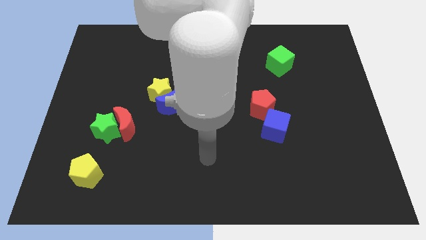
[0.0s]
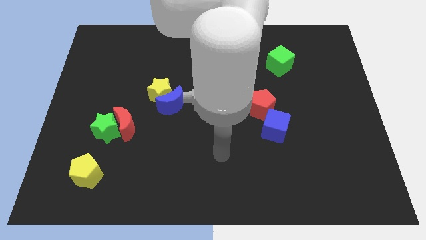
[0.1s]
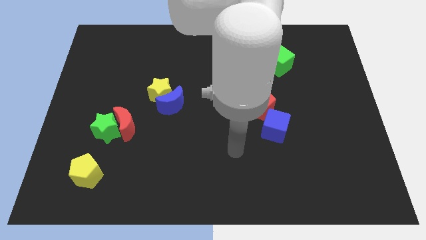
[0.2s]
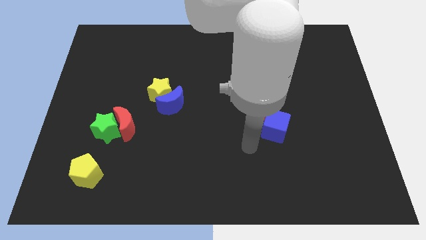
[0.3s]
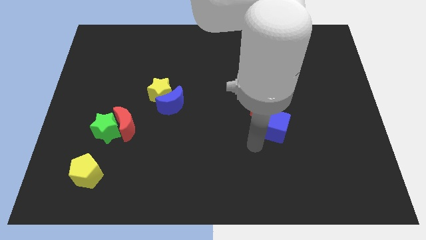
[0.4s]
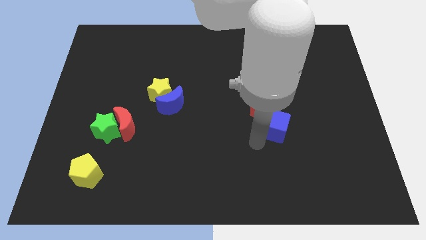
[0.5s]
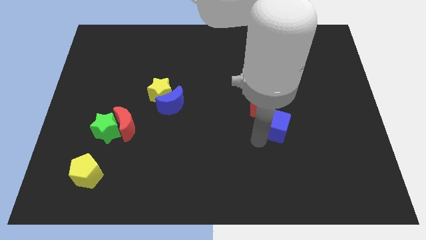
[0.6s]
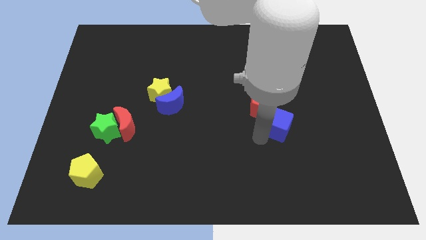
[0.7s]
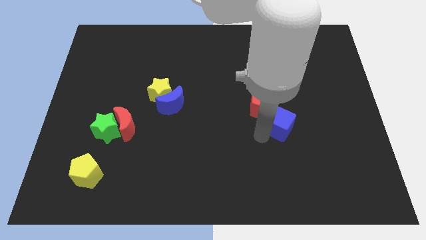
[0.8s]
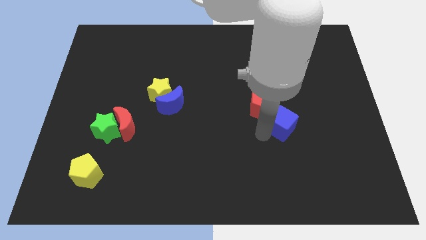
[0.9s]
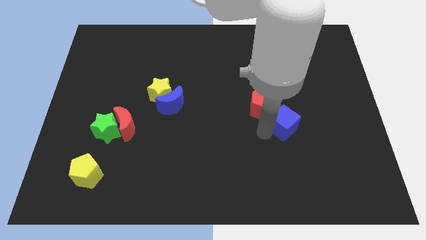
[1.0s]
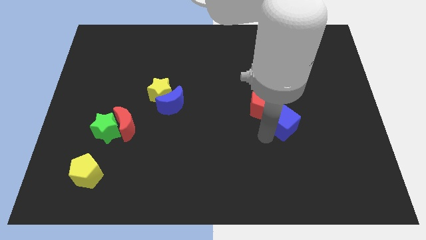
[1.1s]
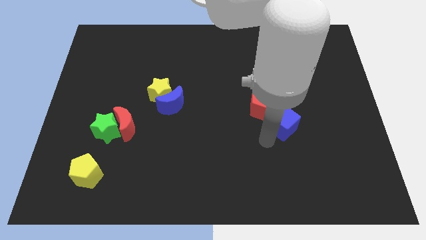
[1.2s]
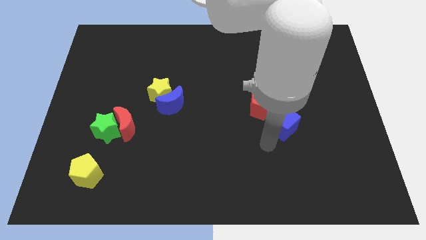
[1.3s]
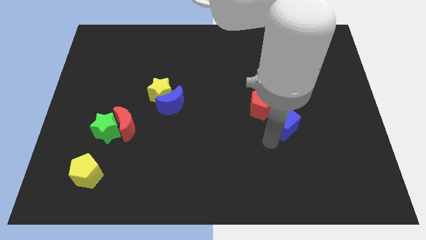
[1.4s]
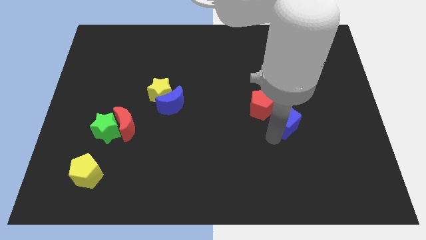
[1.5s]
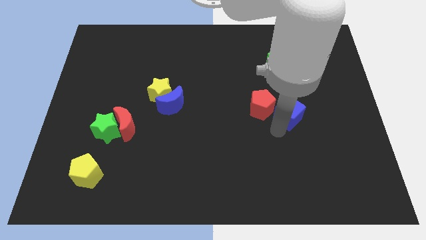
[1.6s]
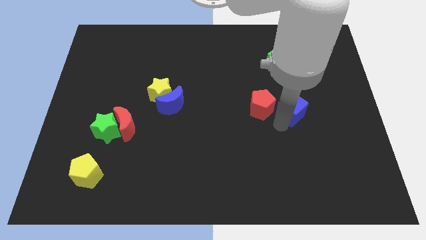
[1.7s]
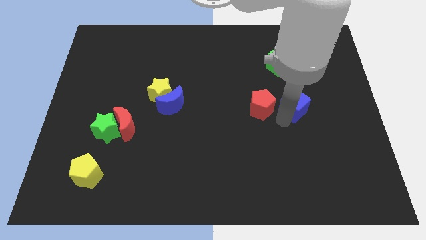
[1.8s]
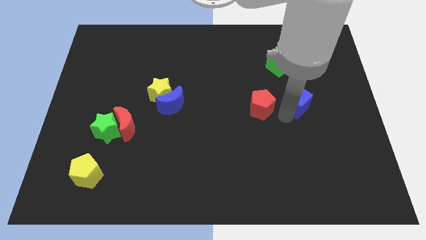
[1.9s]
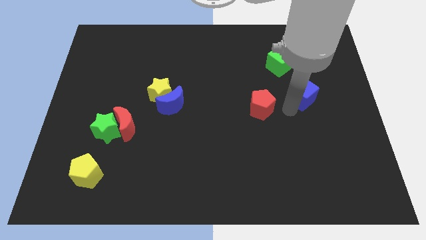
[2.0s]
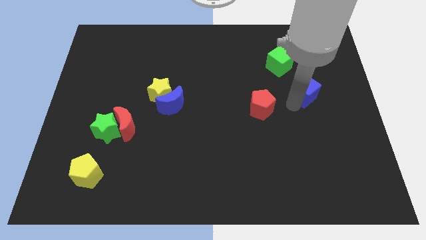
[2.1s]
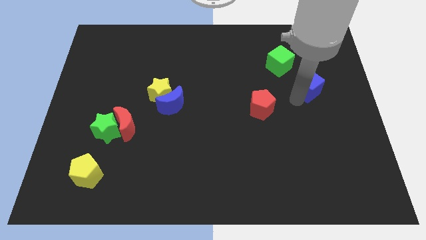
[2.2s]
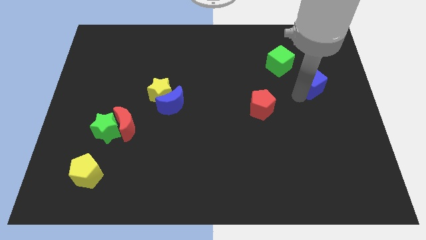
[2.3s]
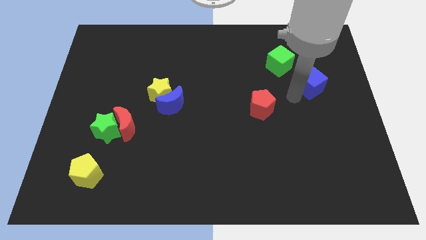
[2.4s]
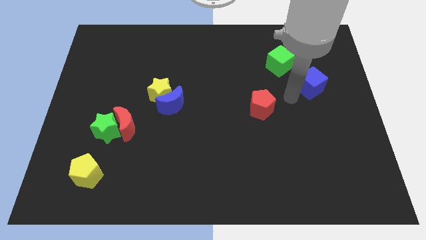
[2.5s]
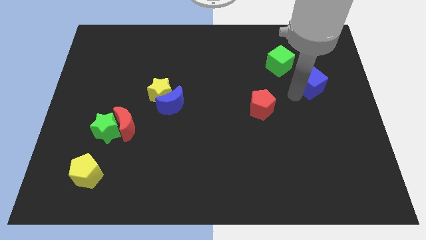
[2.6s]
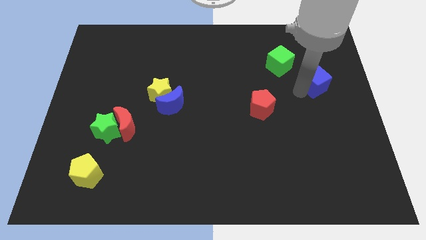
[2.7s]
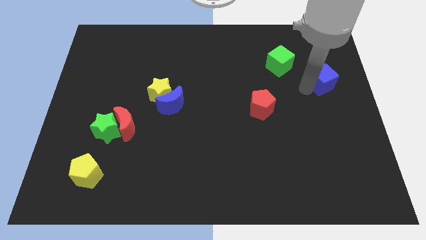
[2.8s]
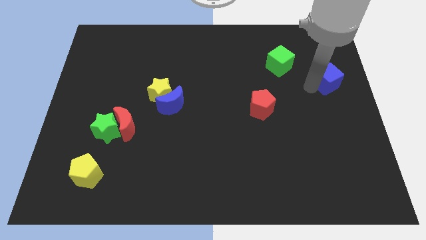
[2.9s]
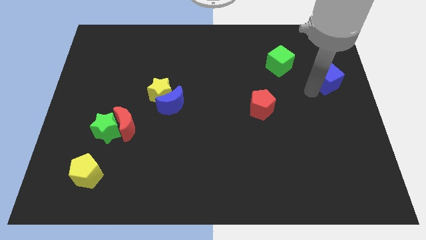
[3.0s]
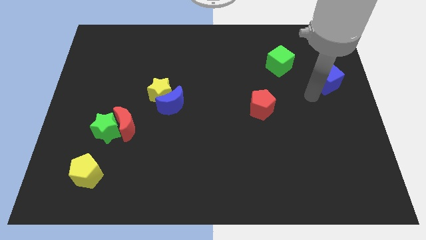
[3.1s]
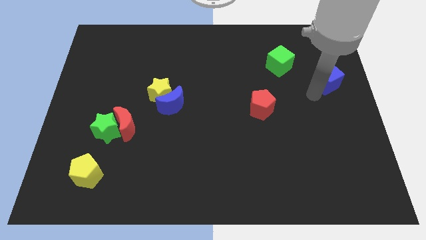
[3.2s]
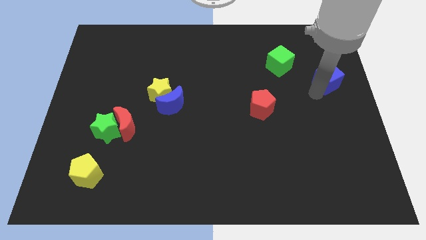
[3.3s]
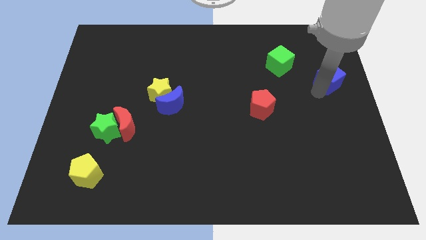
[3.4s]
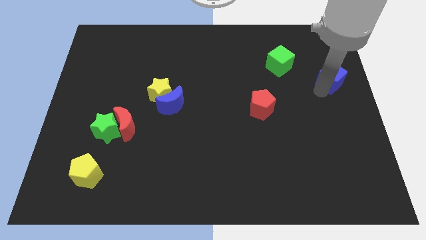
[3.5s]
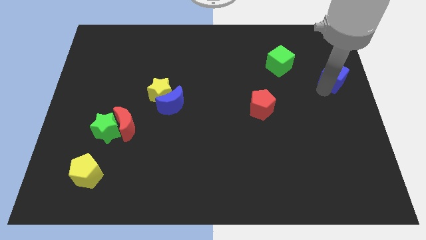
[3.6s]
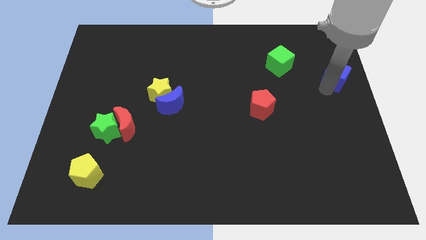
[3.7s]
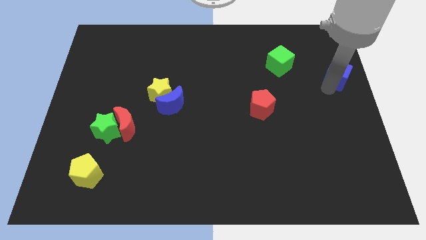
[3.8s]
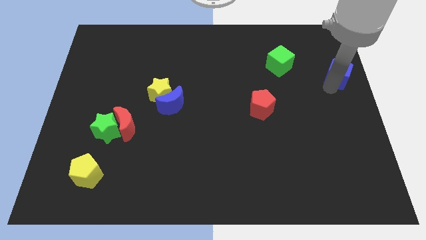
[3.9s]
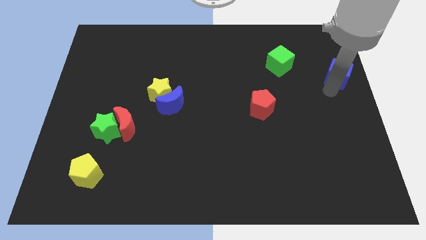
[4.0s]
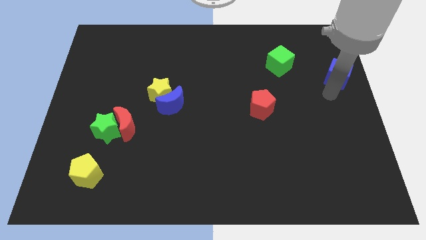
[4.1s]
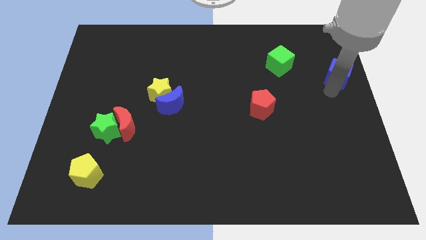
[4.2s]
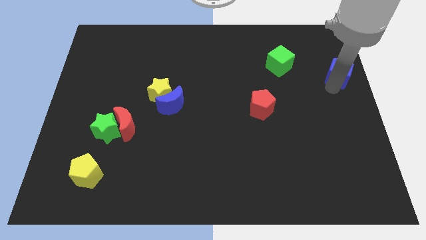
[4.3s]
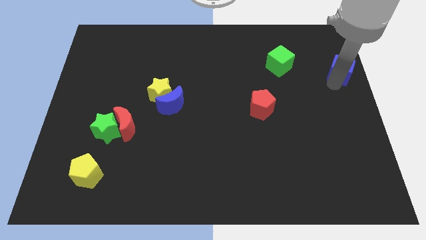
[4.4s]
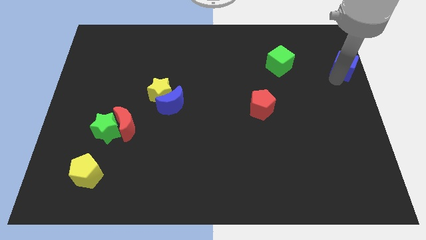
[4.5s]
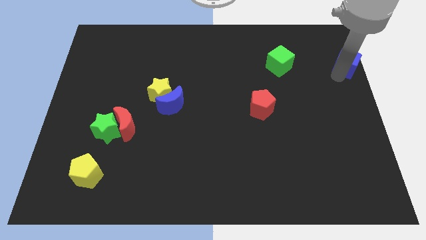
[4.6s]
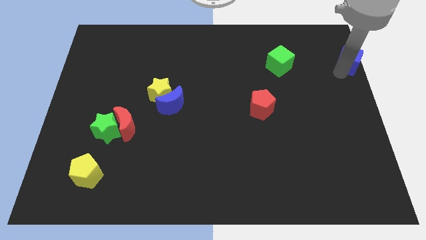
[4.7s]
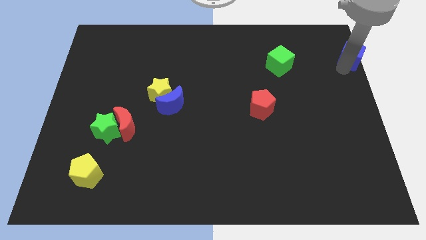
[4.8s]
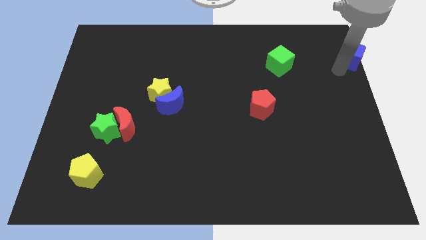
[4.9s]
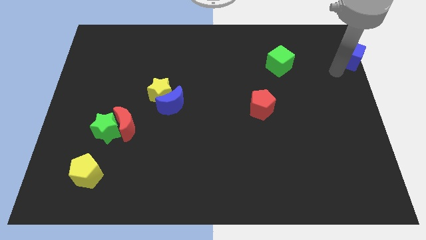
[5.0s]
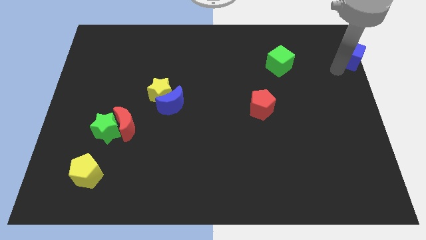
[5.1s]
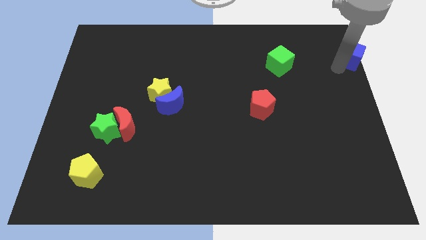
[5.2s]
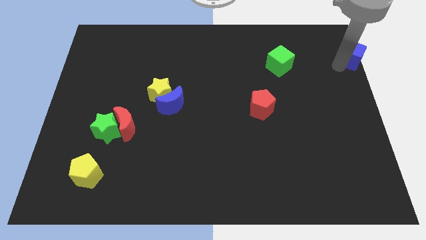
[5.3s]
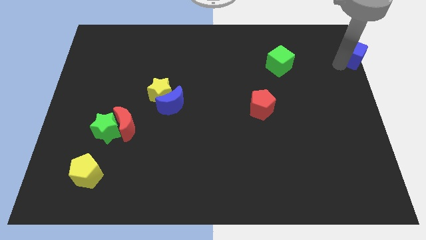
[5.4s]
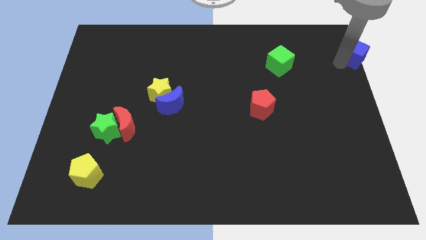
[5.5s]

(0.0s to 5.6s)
put the blue cube to the upper right corner
